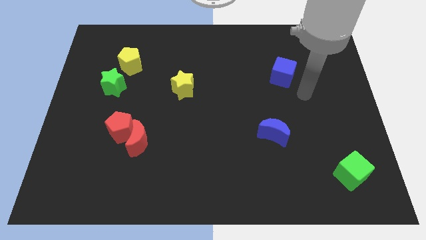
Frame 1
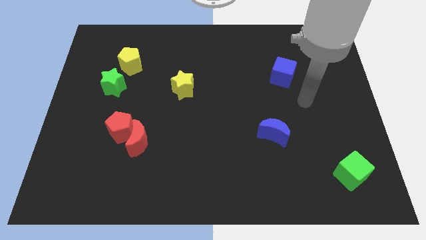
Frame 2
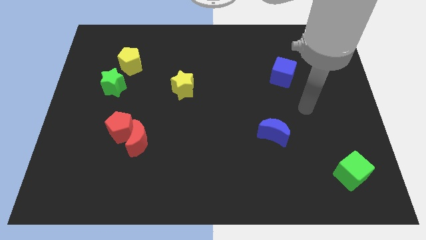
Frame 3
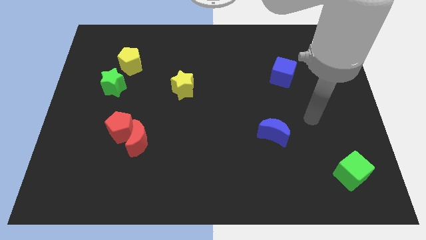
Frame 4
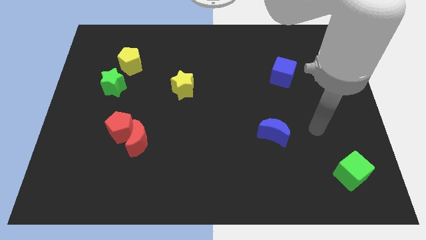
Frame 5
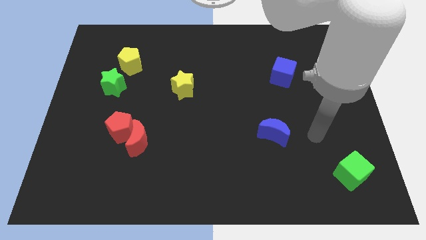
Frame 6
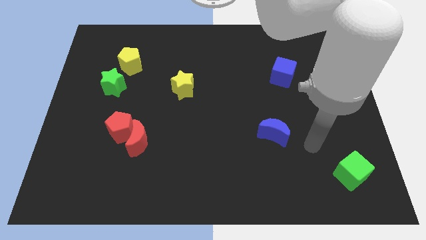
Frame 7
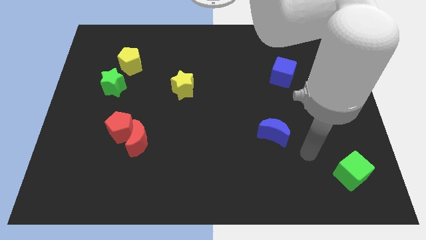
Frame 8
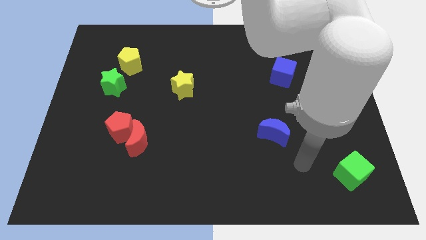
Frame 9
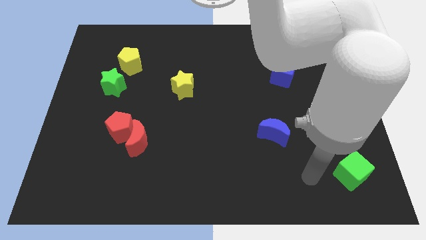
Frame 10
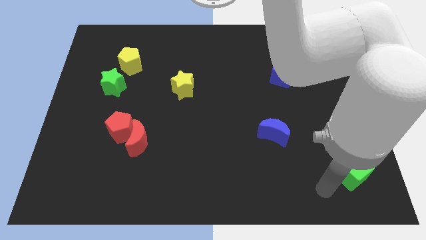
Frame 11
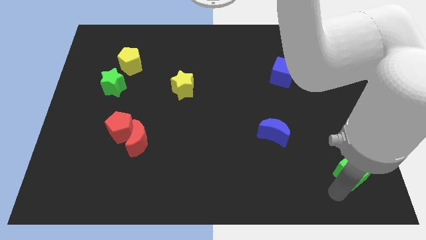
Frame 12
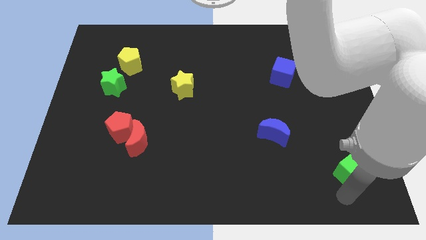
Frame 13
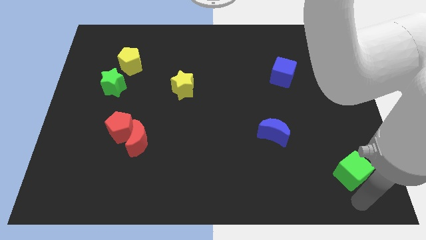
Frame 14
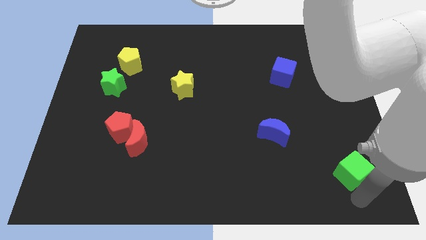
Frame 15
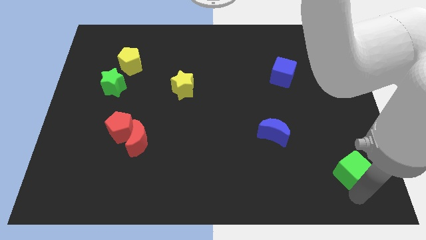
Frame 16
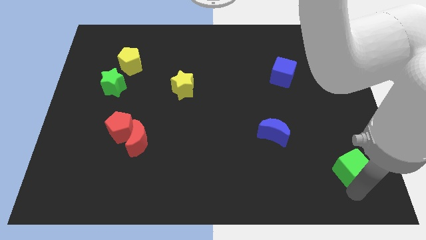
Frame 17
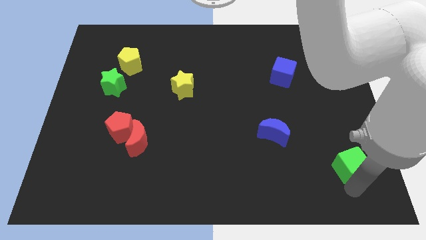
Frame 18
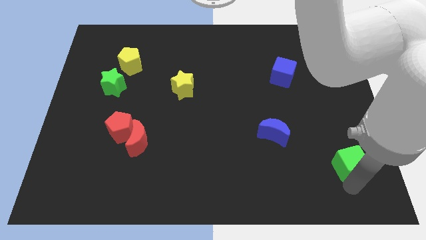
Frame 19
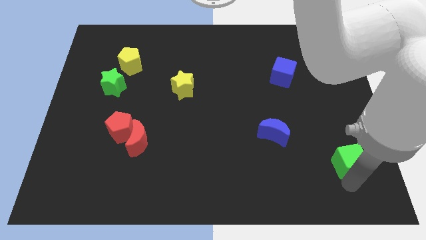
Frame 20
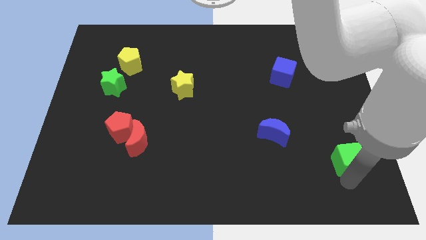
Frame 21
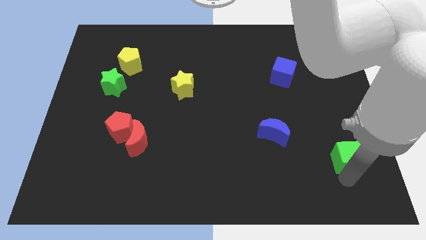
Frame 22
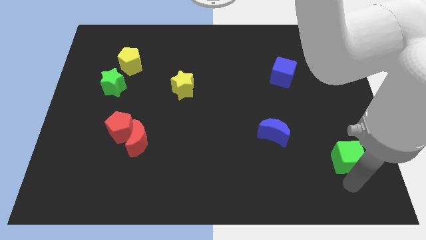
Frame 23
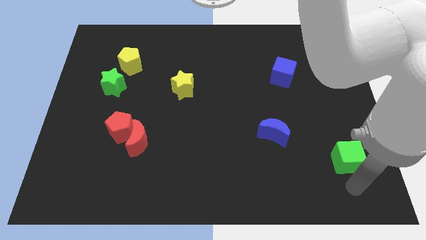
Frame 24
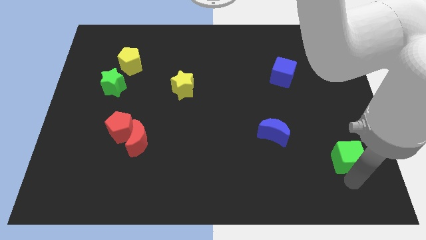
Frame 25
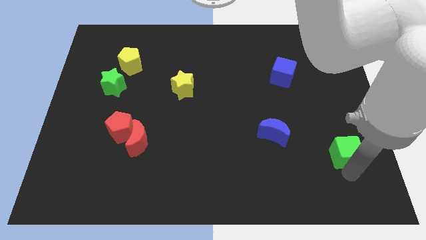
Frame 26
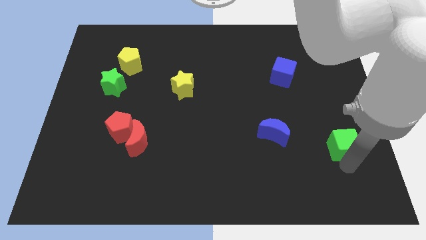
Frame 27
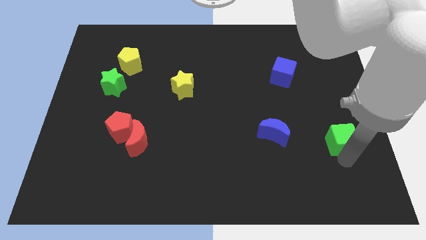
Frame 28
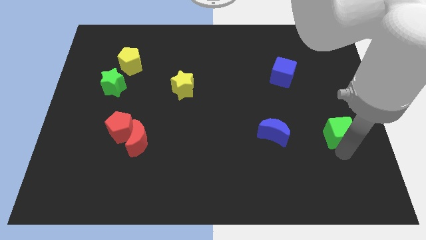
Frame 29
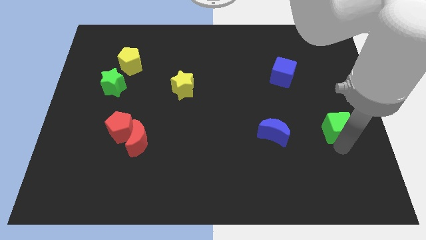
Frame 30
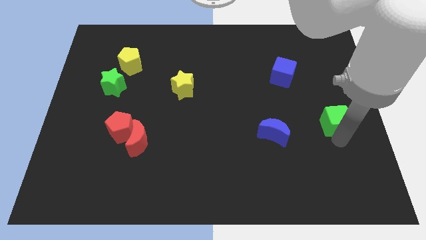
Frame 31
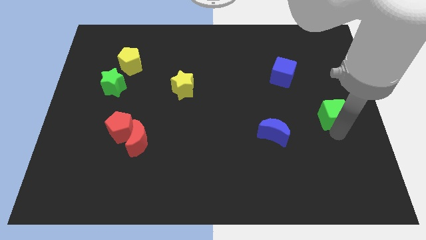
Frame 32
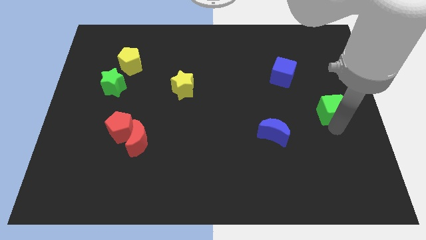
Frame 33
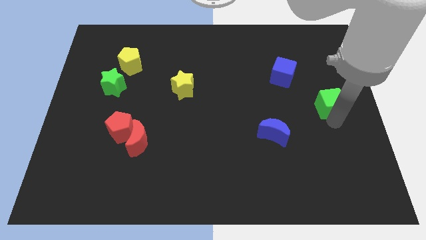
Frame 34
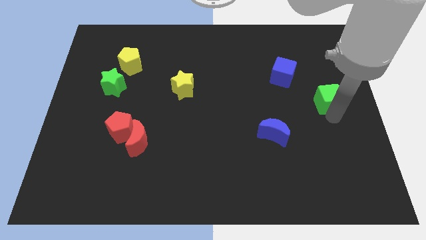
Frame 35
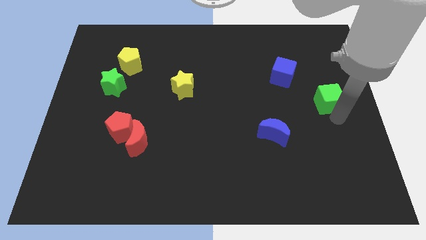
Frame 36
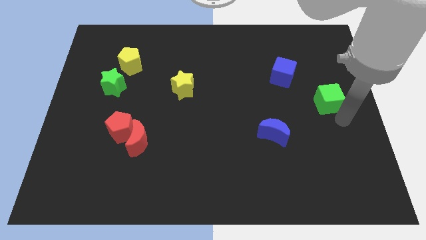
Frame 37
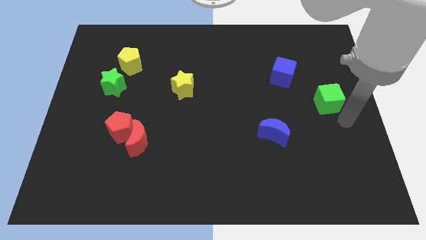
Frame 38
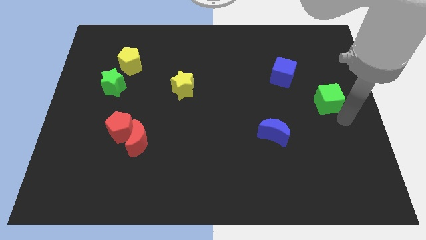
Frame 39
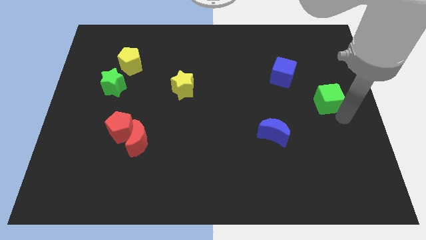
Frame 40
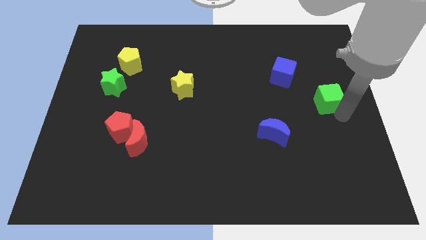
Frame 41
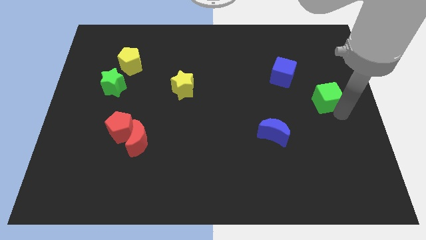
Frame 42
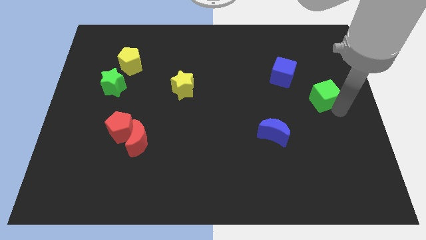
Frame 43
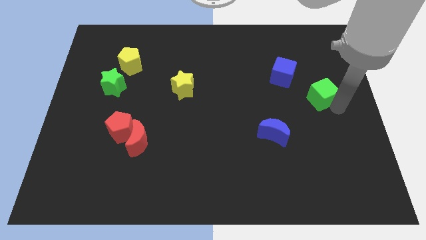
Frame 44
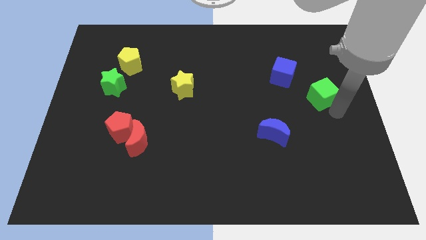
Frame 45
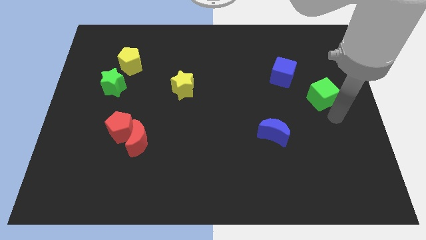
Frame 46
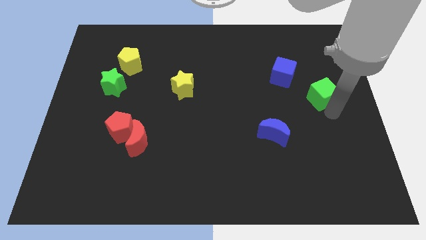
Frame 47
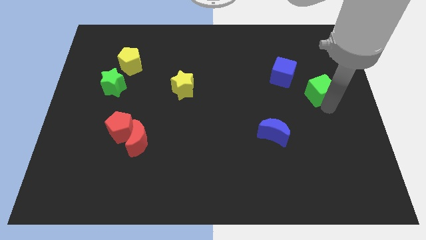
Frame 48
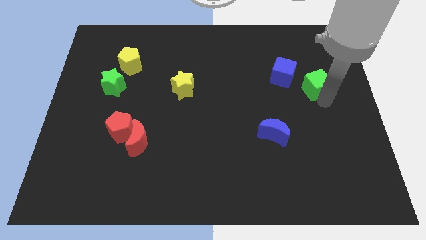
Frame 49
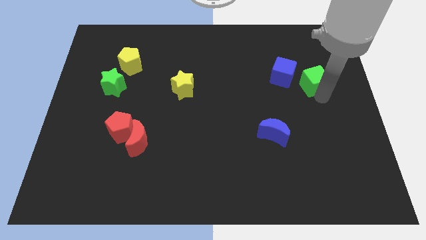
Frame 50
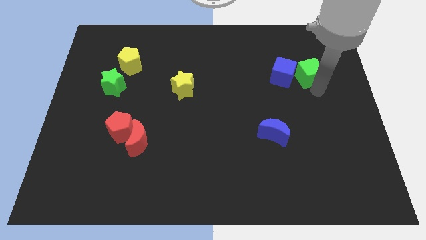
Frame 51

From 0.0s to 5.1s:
slide the green cube diagonally up and to the right of the blue cube

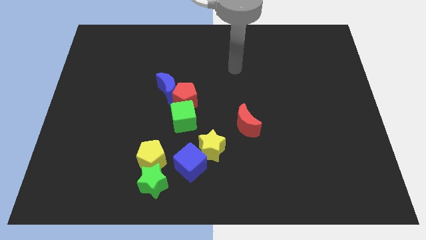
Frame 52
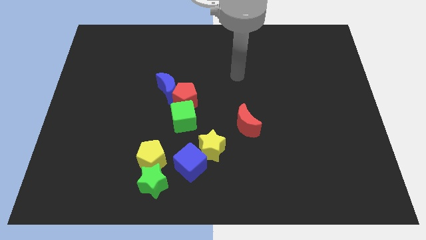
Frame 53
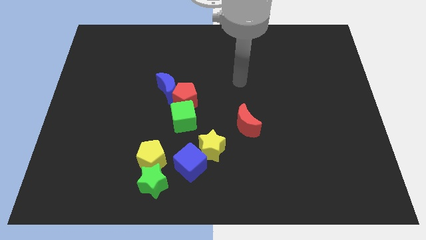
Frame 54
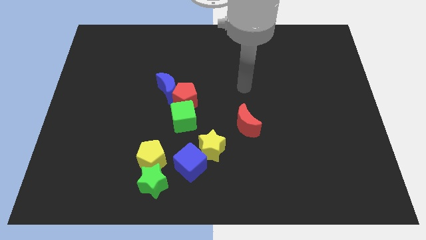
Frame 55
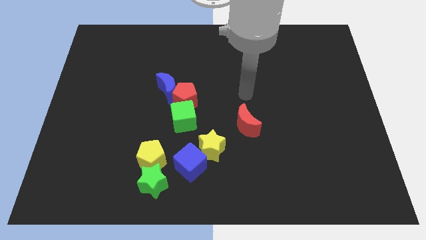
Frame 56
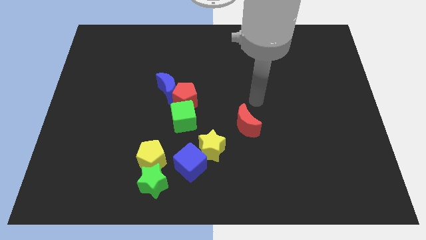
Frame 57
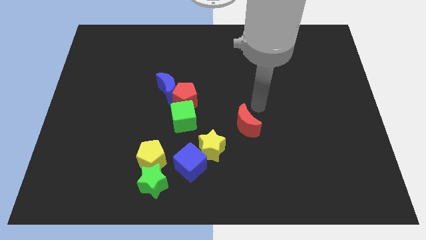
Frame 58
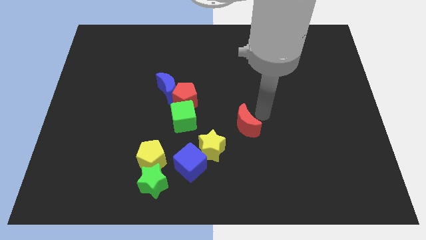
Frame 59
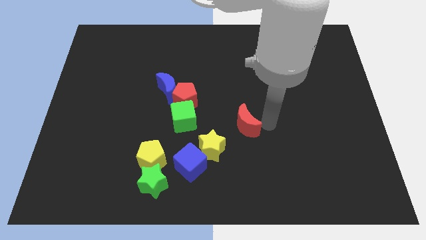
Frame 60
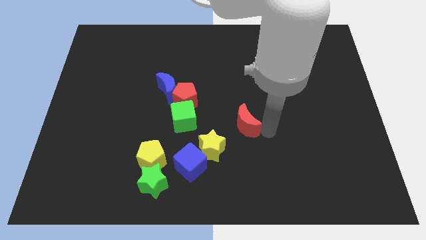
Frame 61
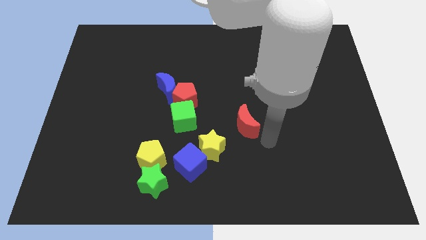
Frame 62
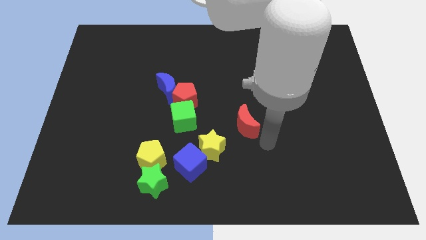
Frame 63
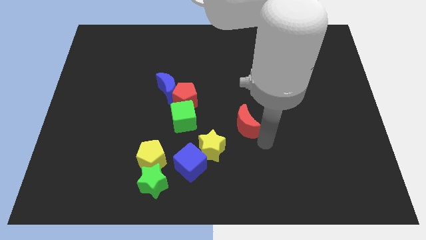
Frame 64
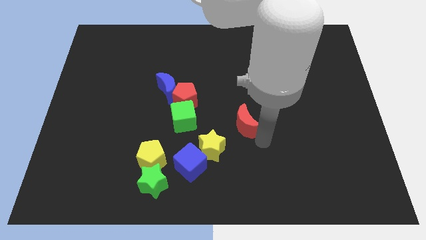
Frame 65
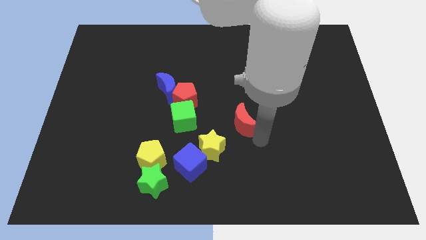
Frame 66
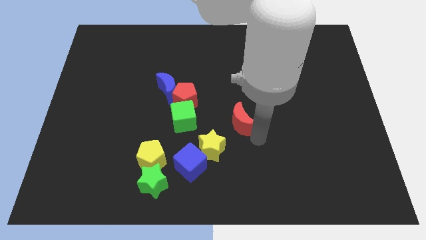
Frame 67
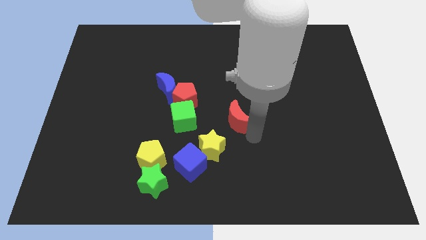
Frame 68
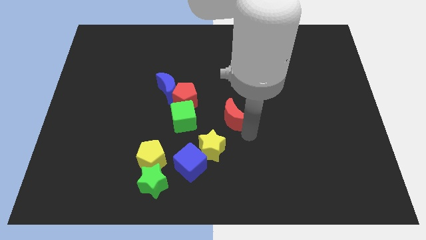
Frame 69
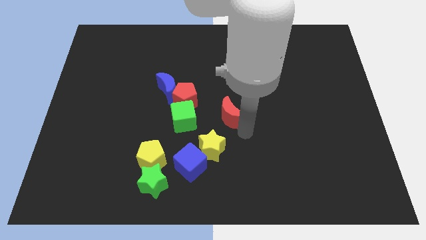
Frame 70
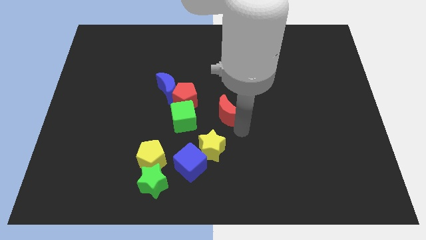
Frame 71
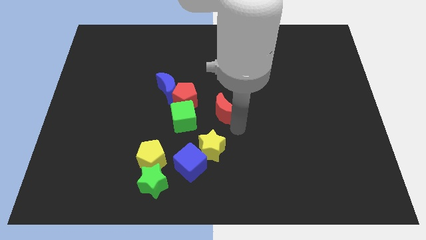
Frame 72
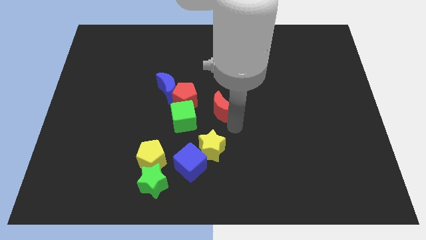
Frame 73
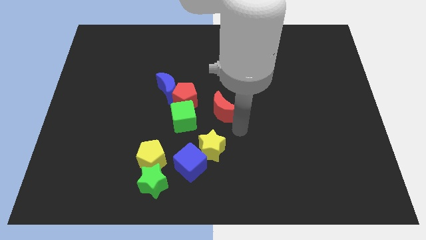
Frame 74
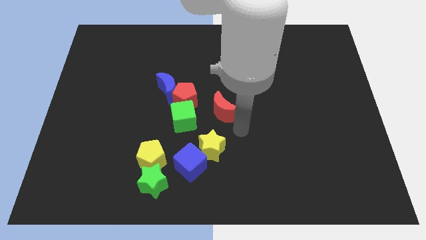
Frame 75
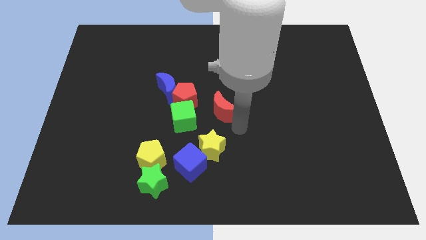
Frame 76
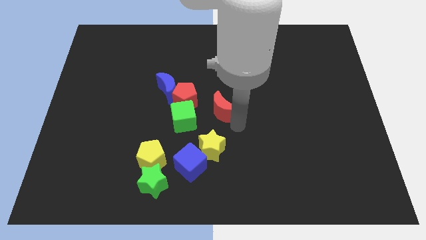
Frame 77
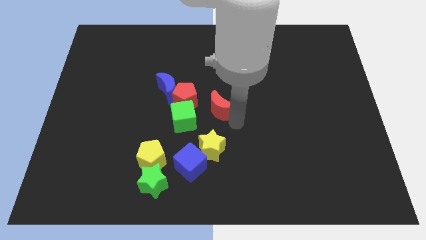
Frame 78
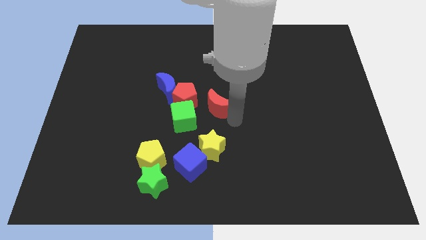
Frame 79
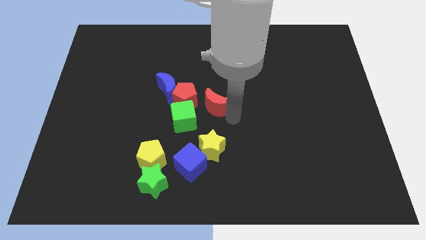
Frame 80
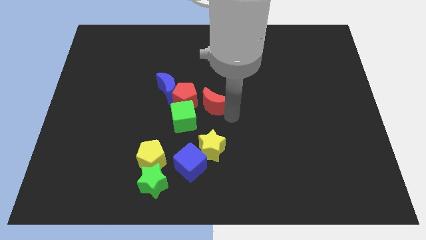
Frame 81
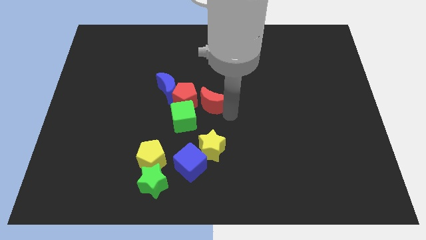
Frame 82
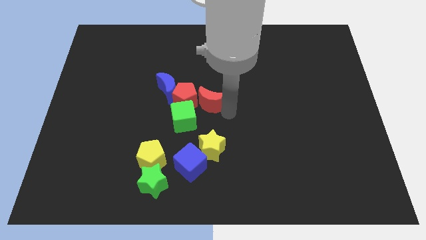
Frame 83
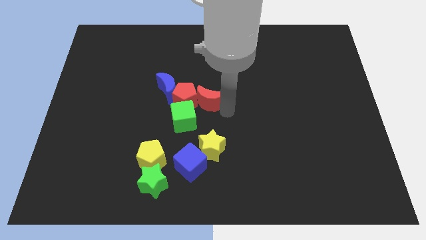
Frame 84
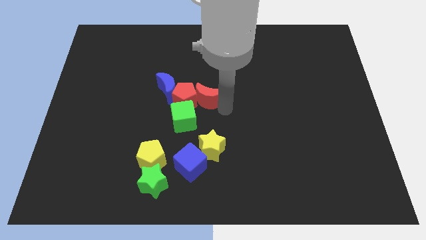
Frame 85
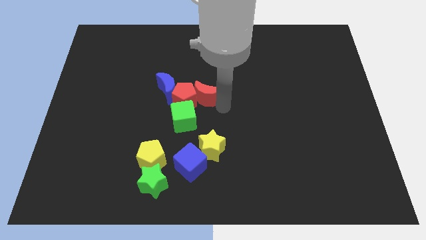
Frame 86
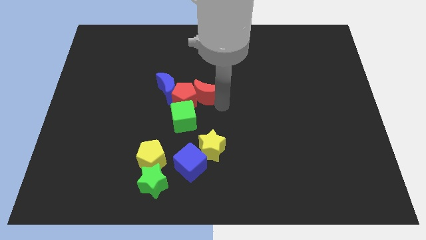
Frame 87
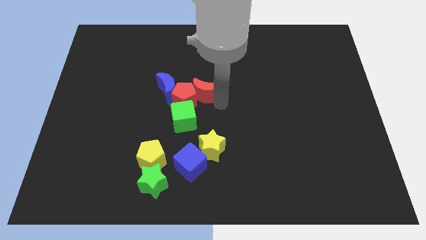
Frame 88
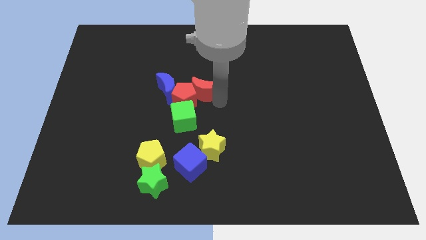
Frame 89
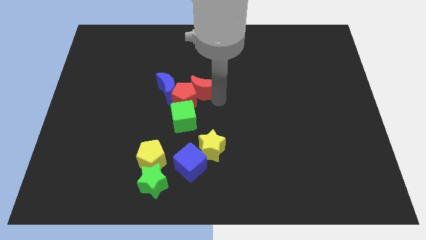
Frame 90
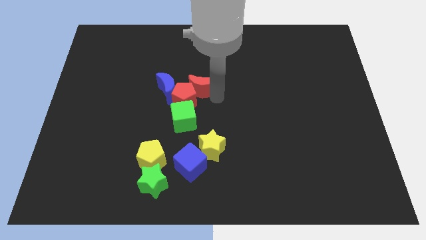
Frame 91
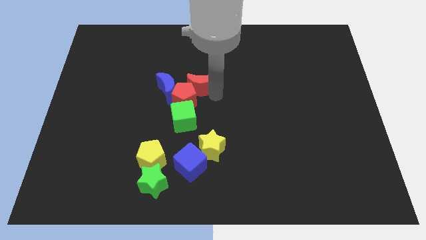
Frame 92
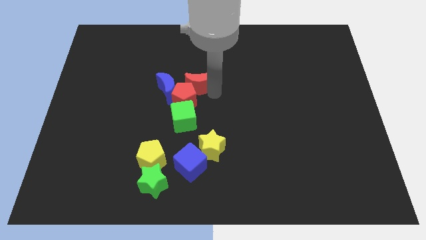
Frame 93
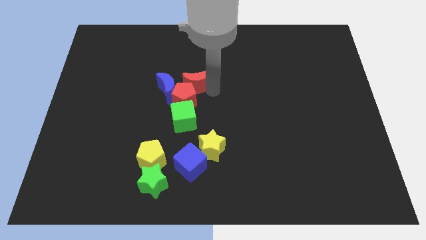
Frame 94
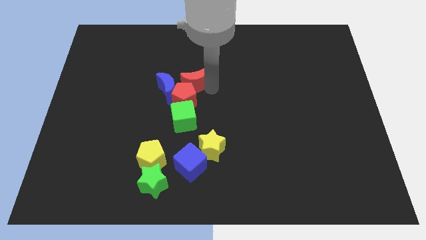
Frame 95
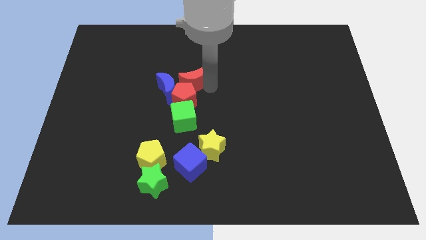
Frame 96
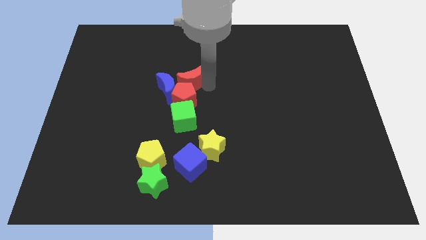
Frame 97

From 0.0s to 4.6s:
move the red moon to the top left side of the red pentagon
